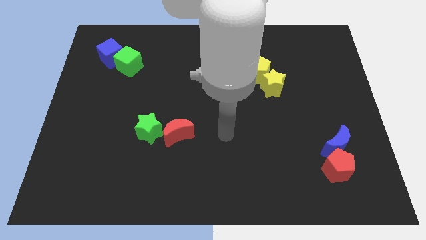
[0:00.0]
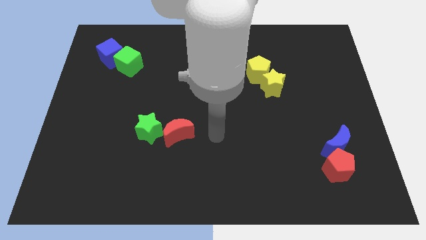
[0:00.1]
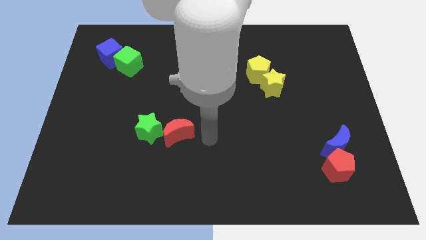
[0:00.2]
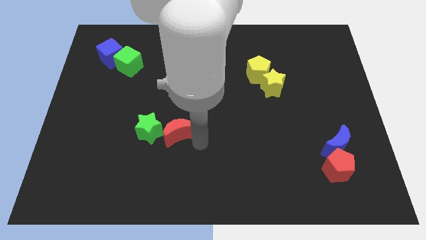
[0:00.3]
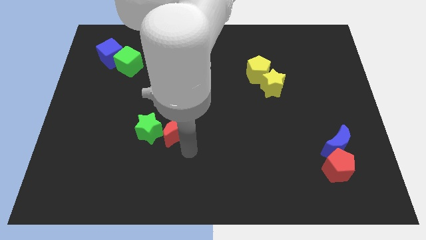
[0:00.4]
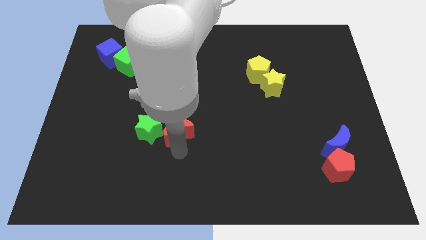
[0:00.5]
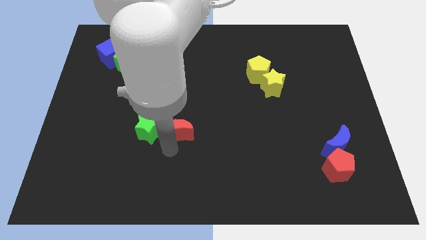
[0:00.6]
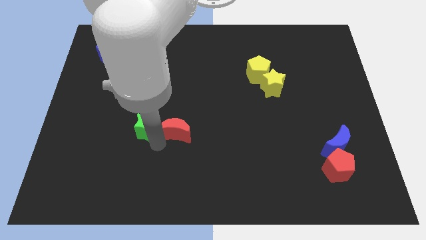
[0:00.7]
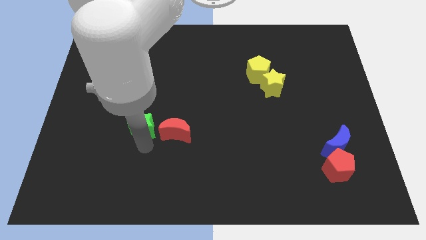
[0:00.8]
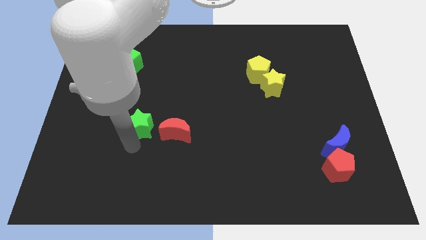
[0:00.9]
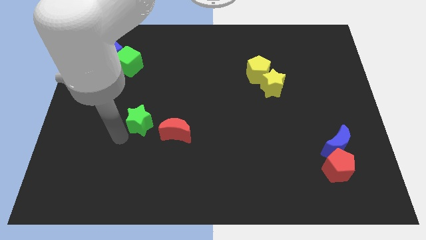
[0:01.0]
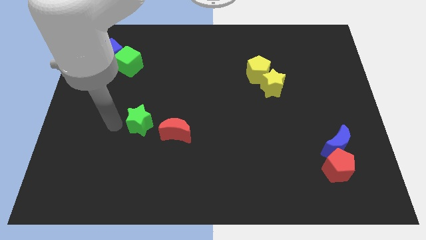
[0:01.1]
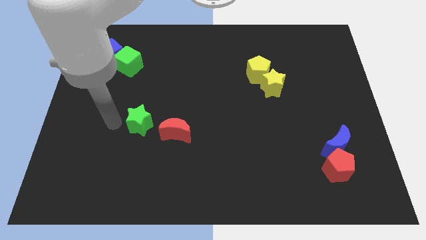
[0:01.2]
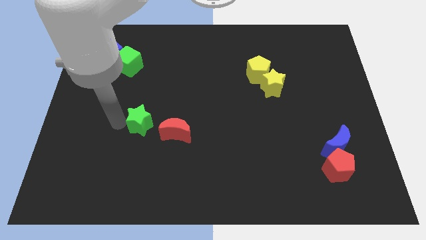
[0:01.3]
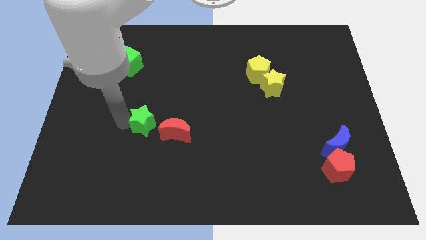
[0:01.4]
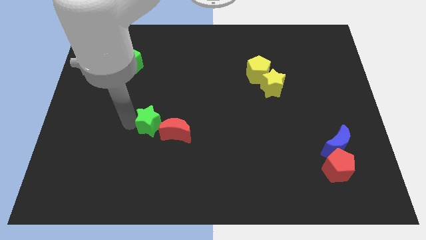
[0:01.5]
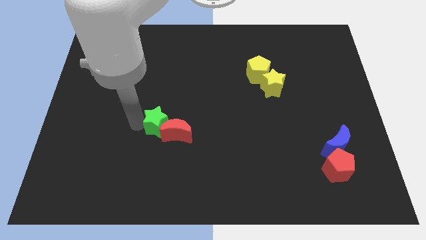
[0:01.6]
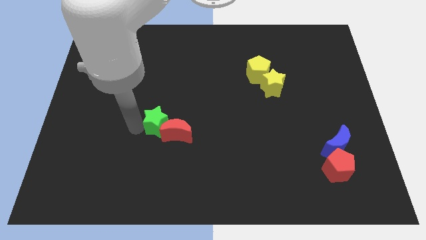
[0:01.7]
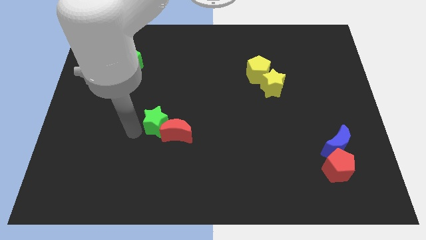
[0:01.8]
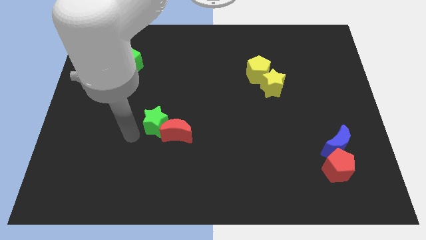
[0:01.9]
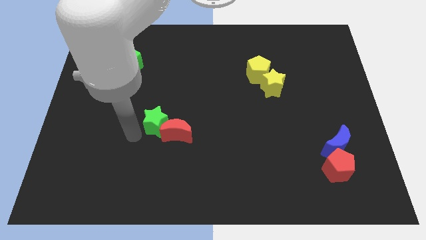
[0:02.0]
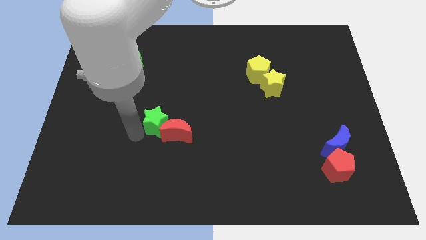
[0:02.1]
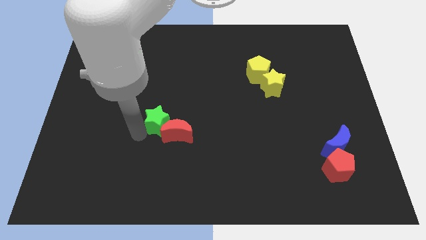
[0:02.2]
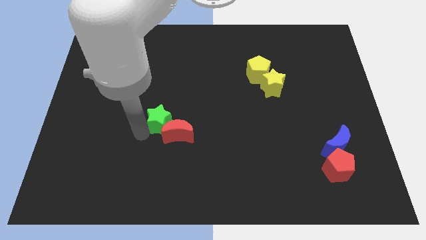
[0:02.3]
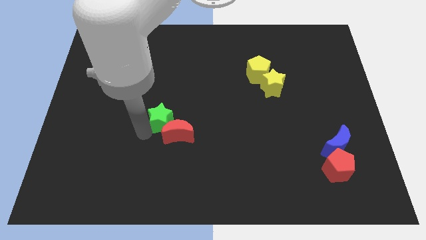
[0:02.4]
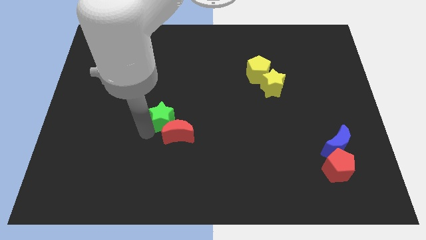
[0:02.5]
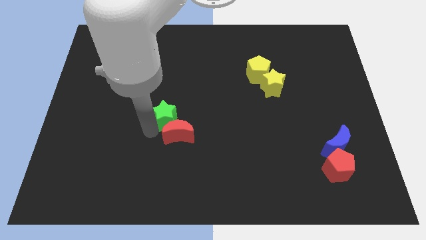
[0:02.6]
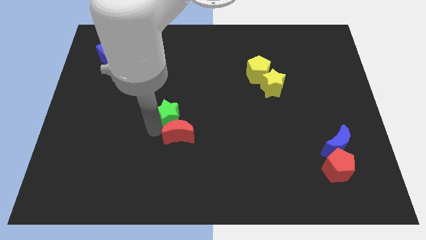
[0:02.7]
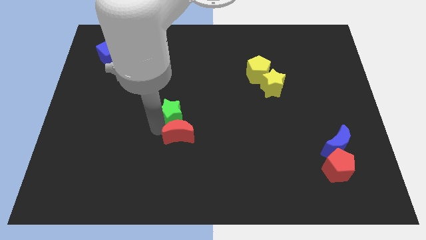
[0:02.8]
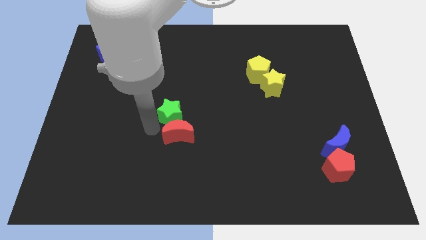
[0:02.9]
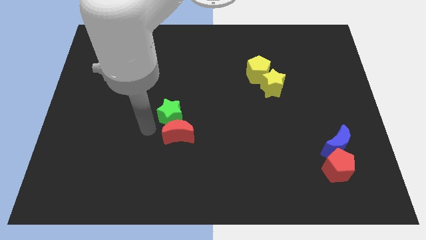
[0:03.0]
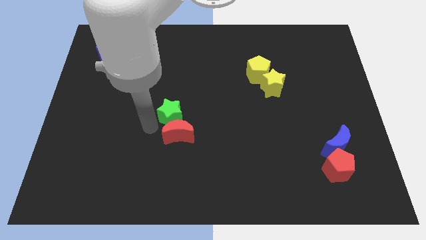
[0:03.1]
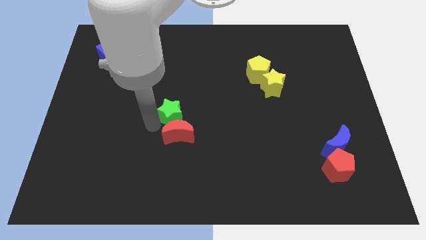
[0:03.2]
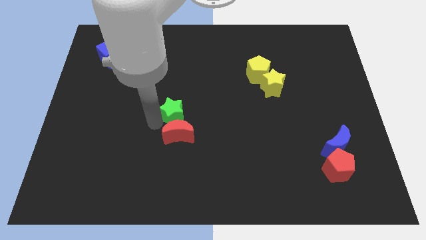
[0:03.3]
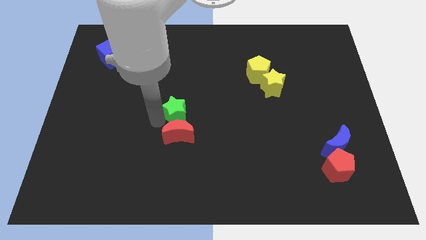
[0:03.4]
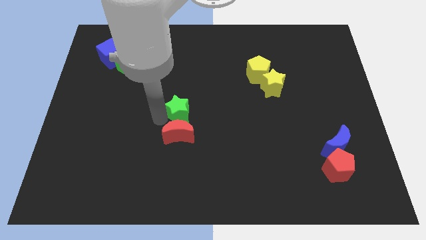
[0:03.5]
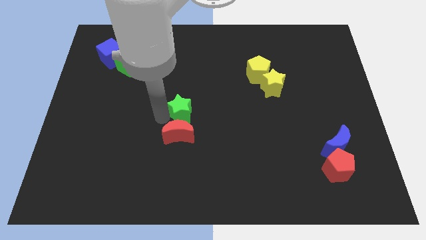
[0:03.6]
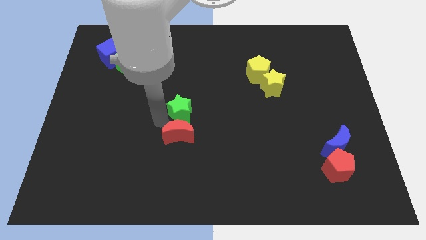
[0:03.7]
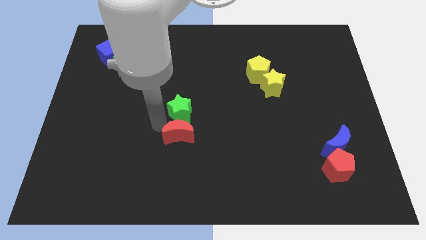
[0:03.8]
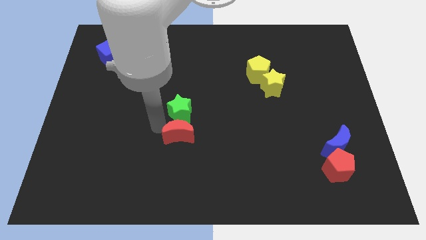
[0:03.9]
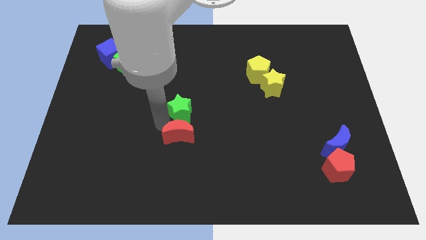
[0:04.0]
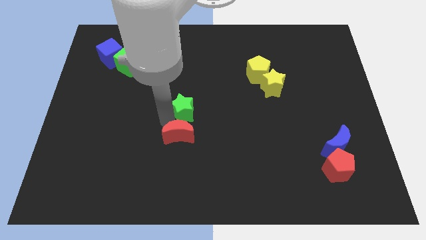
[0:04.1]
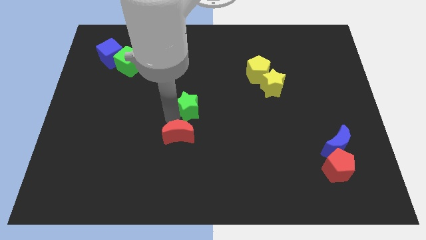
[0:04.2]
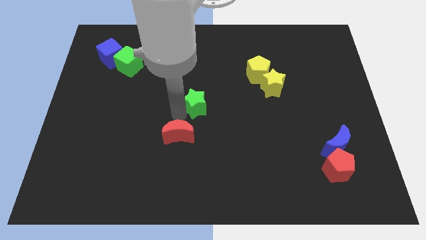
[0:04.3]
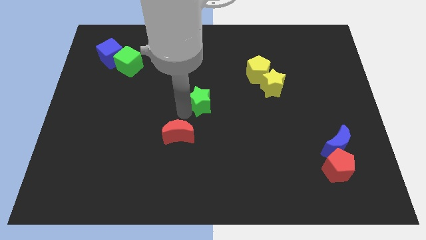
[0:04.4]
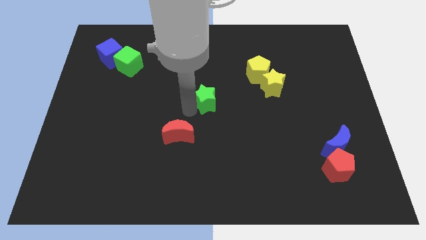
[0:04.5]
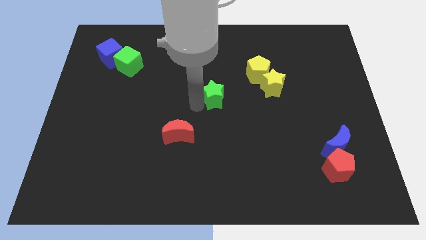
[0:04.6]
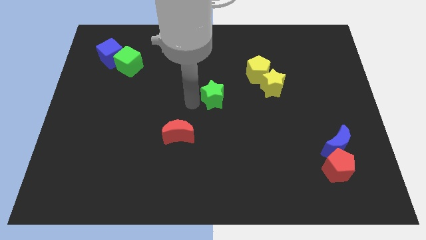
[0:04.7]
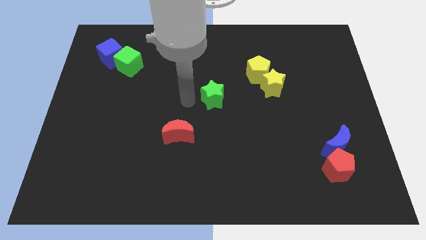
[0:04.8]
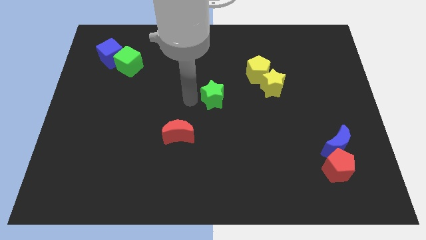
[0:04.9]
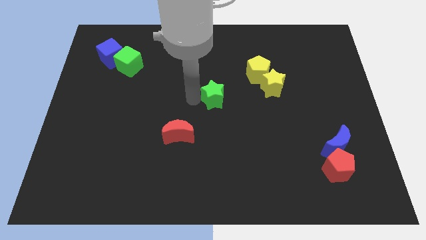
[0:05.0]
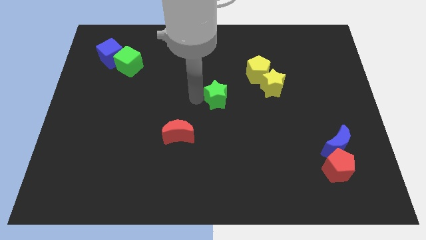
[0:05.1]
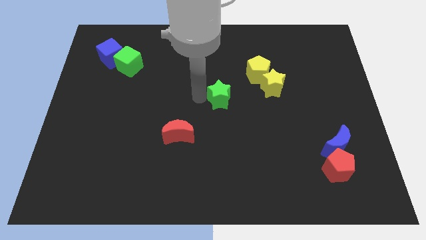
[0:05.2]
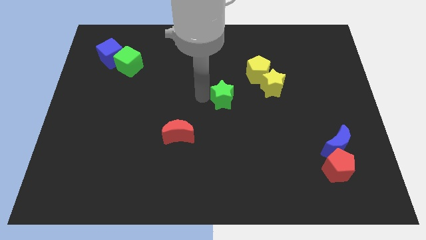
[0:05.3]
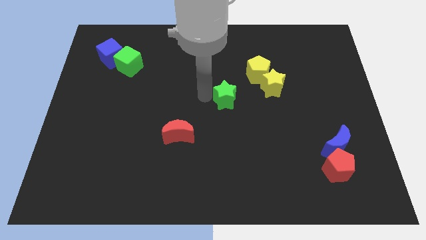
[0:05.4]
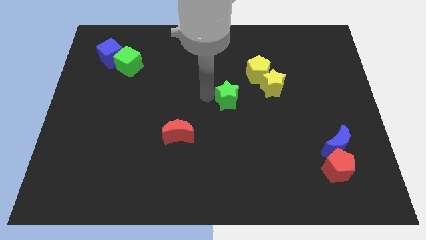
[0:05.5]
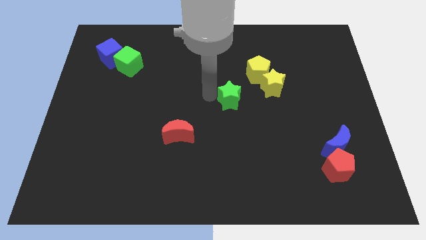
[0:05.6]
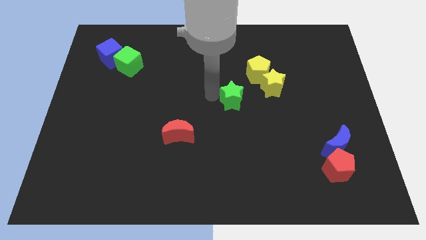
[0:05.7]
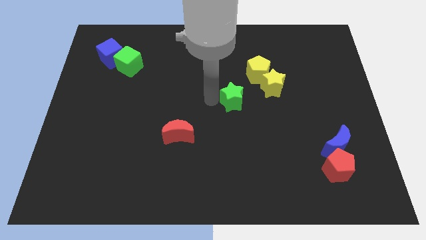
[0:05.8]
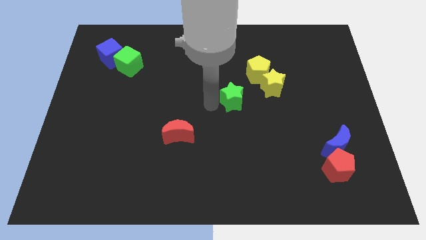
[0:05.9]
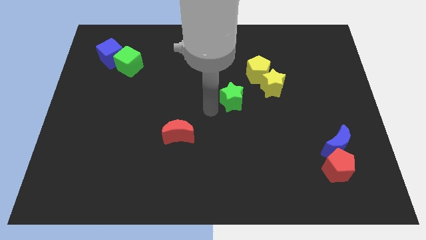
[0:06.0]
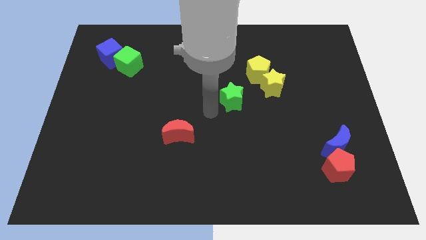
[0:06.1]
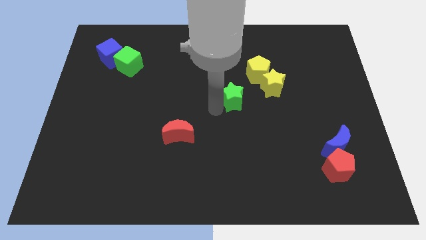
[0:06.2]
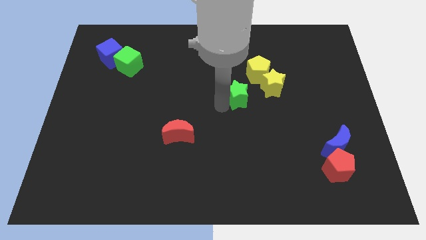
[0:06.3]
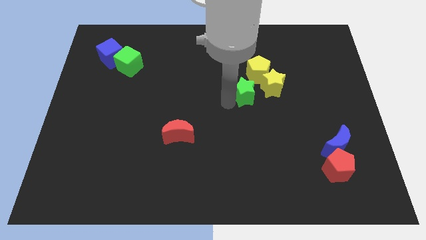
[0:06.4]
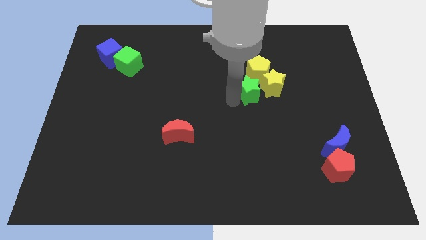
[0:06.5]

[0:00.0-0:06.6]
slide the green star next to the yellow star
